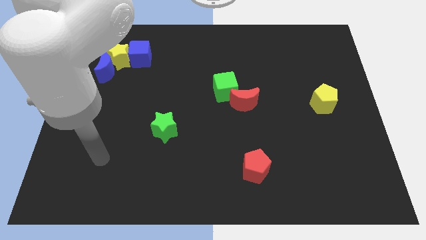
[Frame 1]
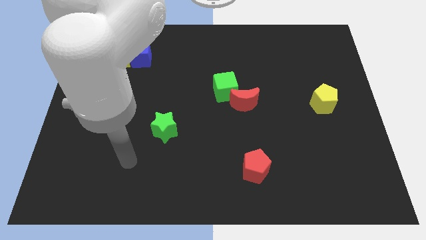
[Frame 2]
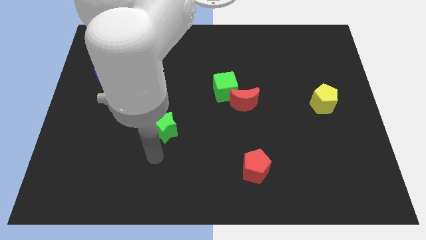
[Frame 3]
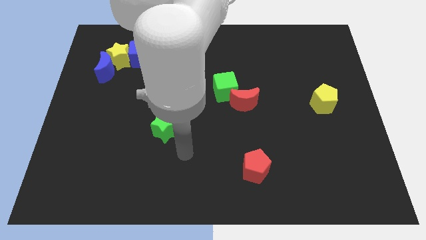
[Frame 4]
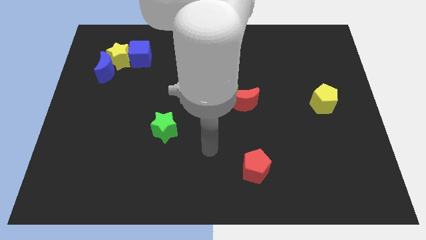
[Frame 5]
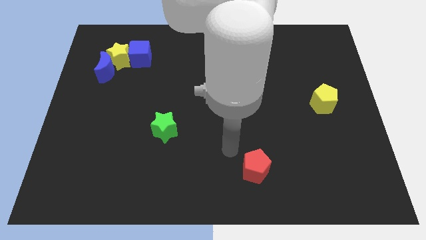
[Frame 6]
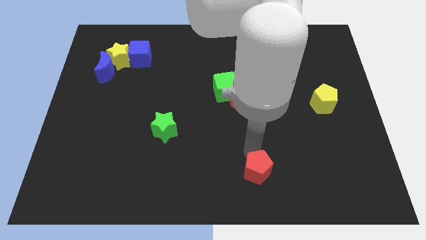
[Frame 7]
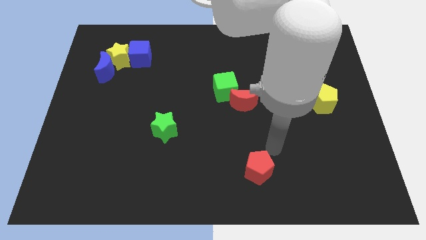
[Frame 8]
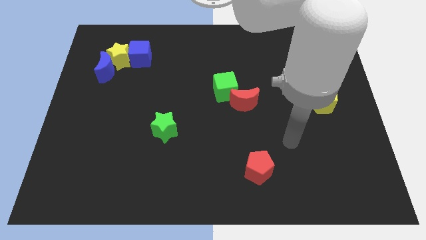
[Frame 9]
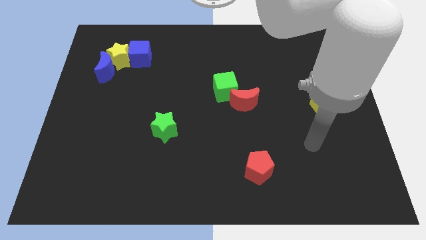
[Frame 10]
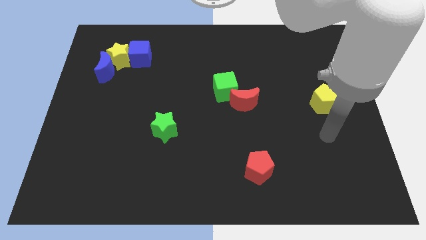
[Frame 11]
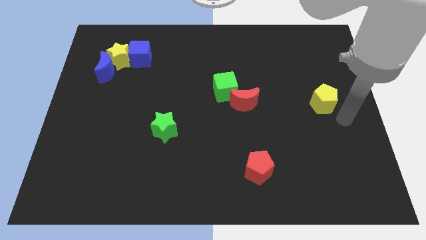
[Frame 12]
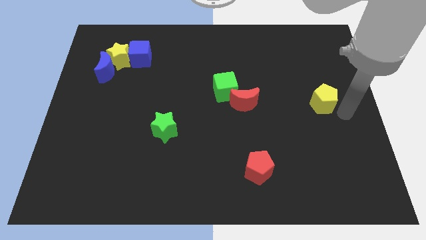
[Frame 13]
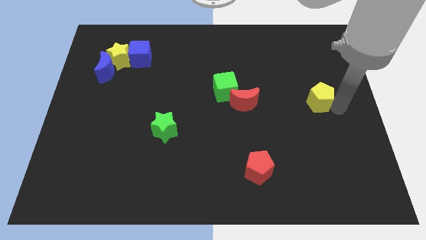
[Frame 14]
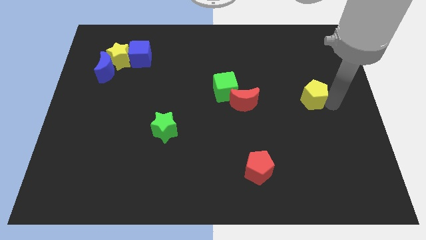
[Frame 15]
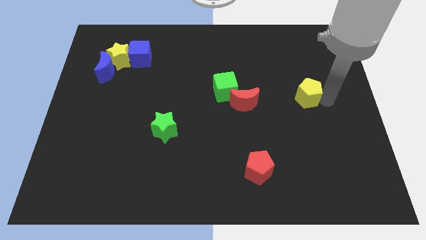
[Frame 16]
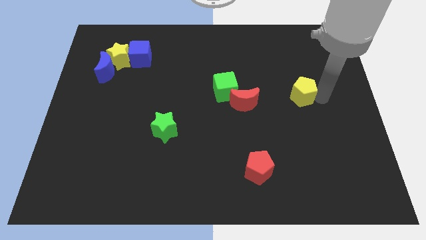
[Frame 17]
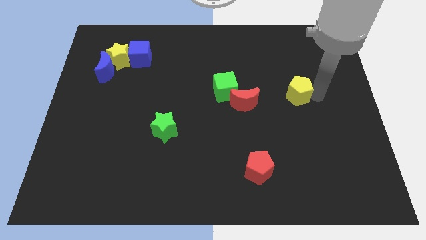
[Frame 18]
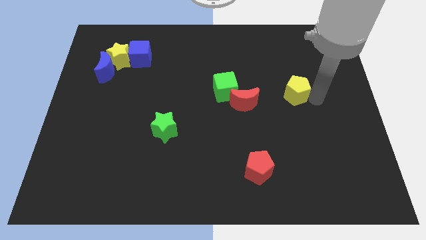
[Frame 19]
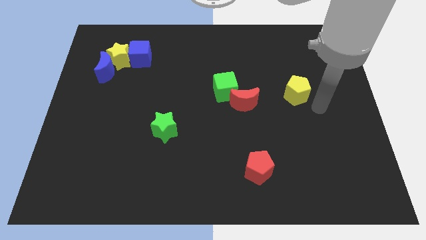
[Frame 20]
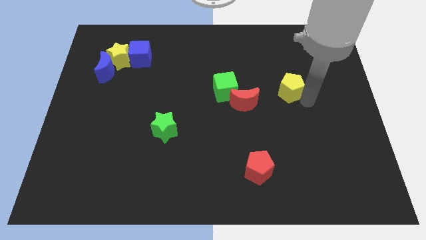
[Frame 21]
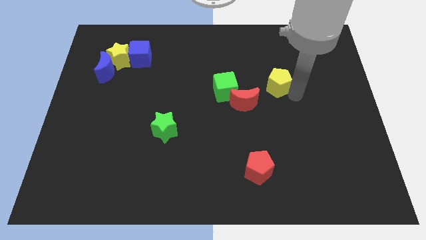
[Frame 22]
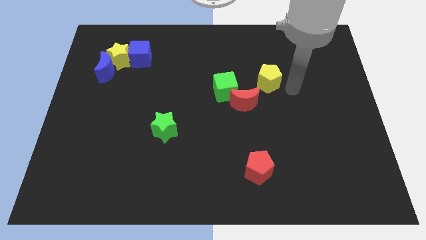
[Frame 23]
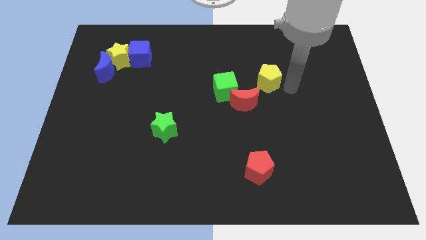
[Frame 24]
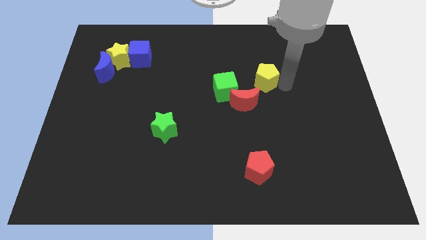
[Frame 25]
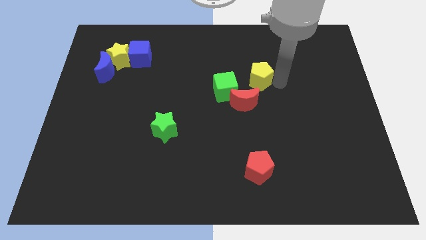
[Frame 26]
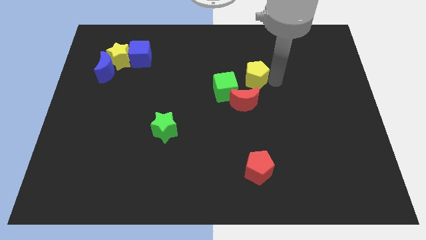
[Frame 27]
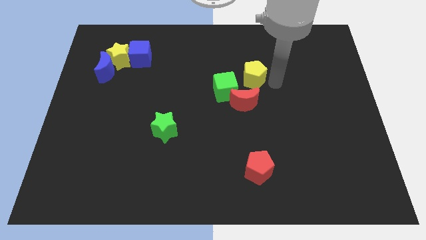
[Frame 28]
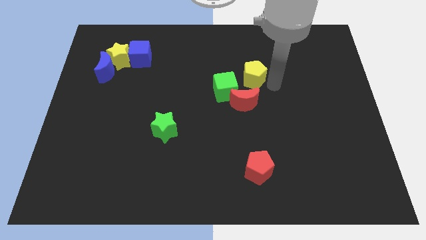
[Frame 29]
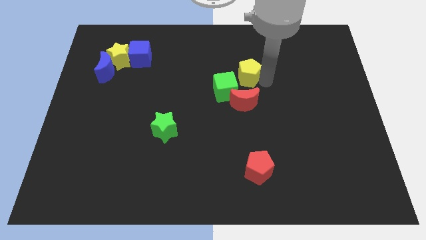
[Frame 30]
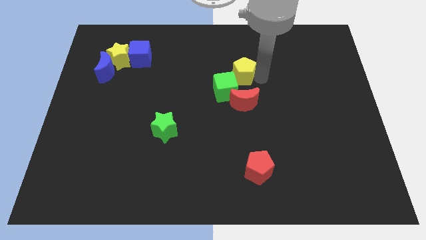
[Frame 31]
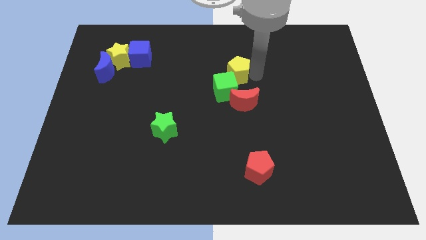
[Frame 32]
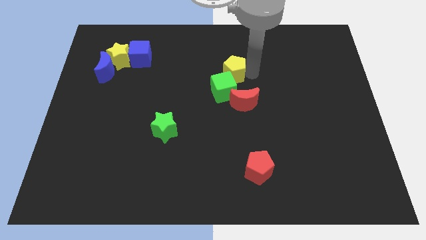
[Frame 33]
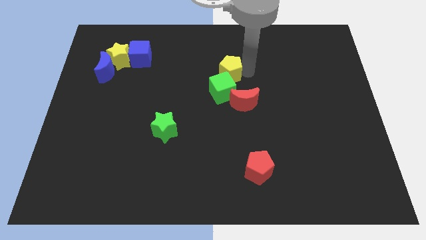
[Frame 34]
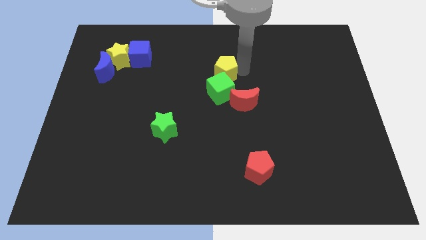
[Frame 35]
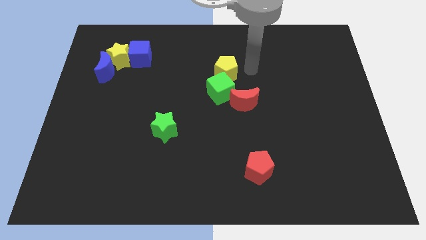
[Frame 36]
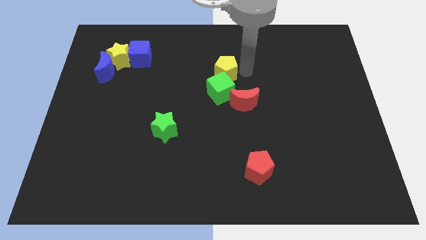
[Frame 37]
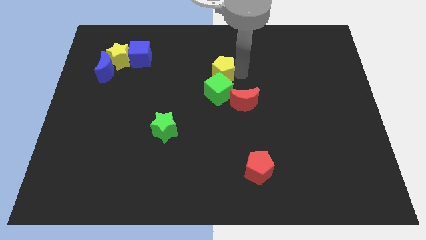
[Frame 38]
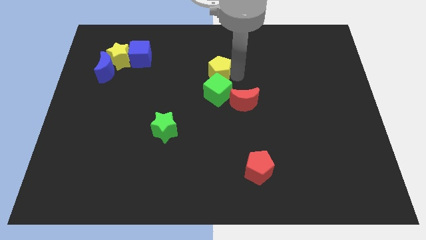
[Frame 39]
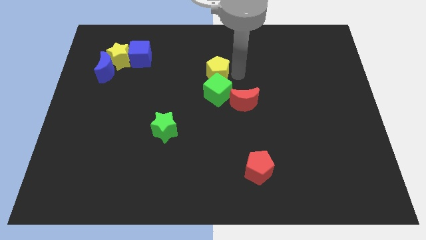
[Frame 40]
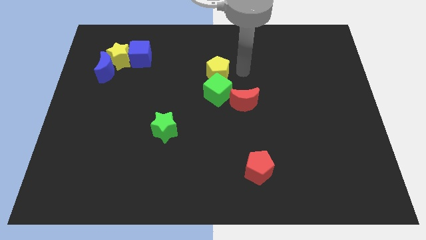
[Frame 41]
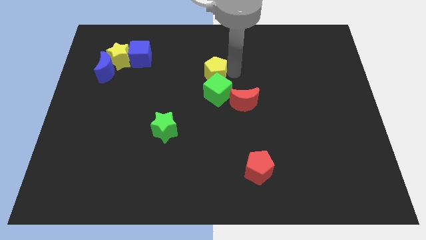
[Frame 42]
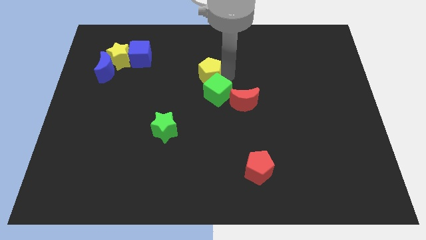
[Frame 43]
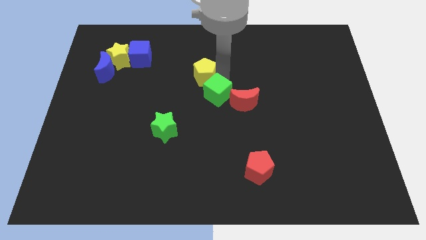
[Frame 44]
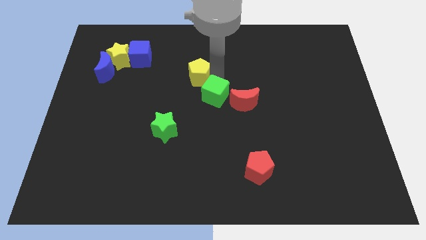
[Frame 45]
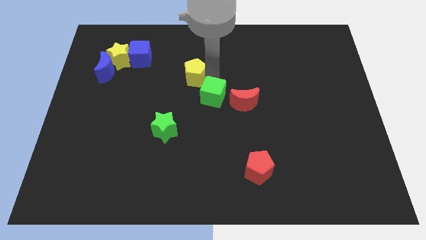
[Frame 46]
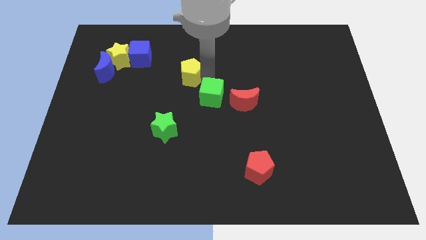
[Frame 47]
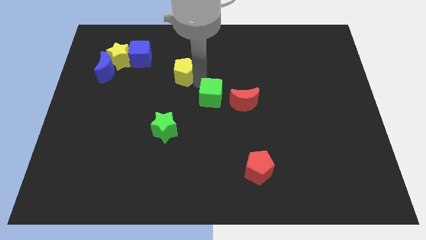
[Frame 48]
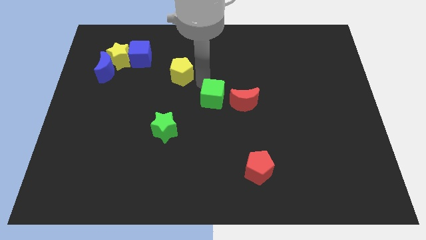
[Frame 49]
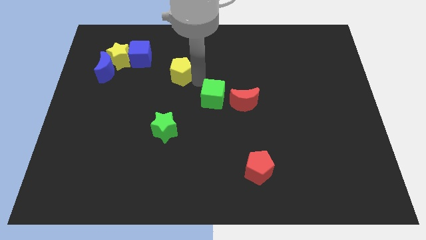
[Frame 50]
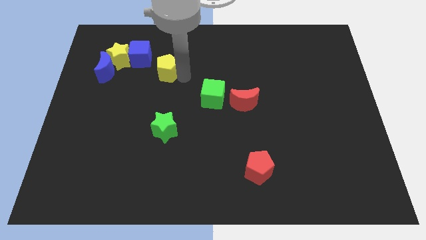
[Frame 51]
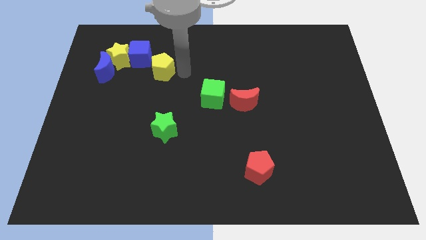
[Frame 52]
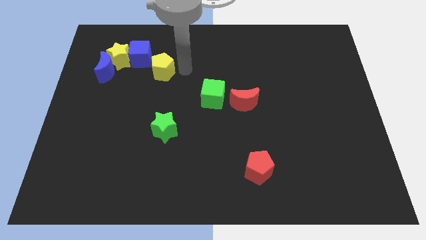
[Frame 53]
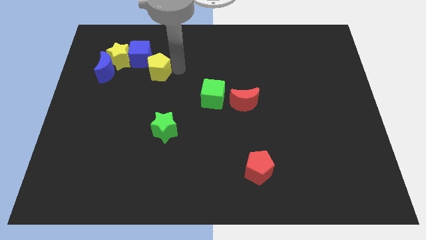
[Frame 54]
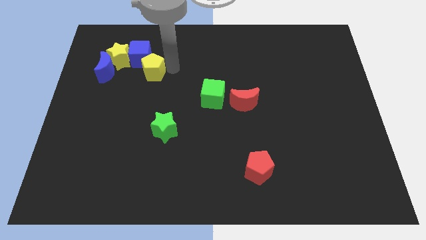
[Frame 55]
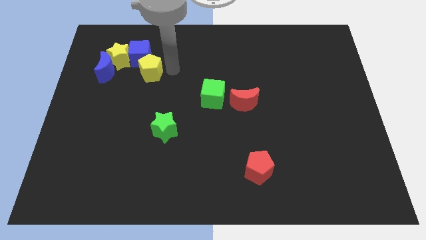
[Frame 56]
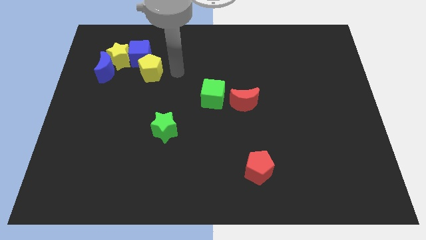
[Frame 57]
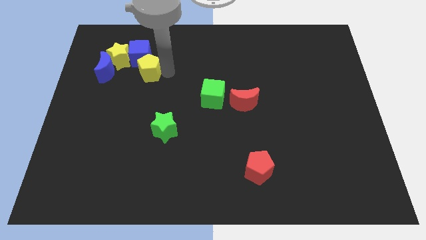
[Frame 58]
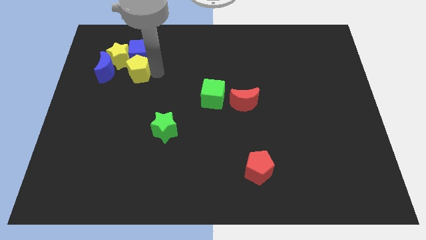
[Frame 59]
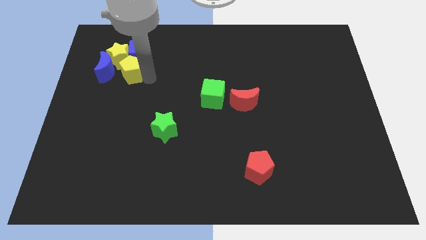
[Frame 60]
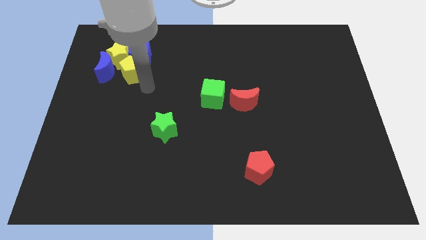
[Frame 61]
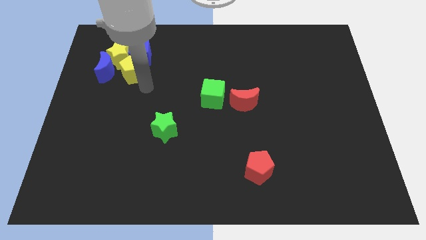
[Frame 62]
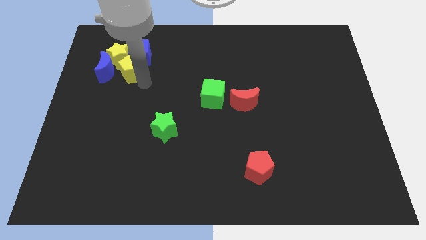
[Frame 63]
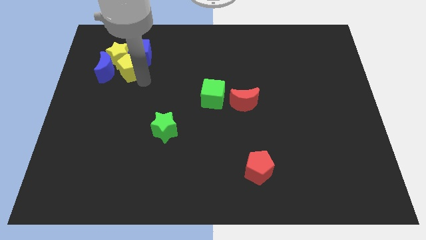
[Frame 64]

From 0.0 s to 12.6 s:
move the yellow pentagon close to the yellow star
